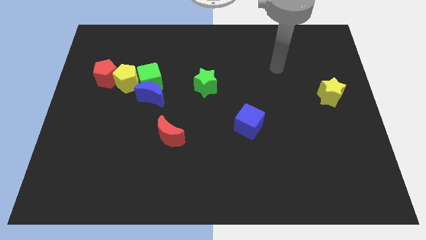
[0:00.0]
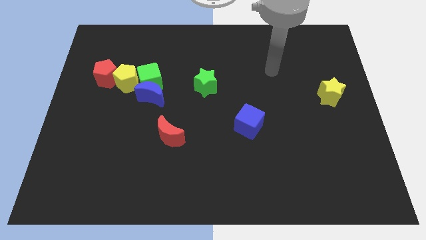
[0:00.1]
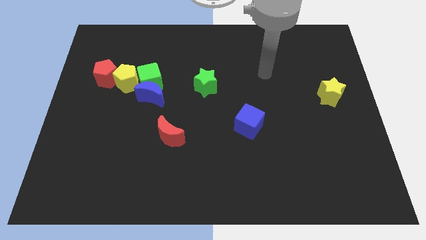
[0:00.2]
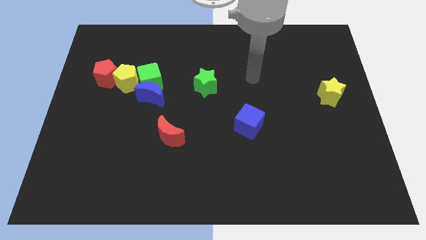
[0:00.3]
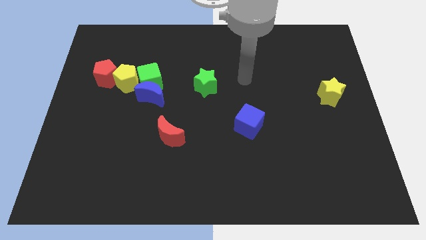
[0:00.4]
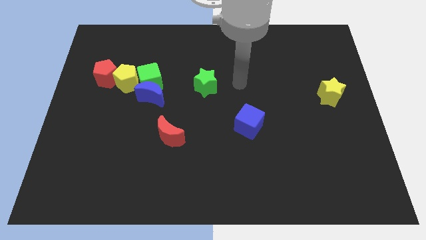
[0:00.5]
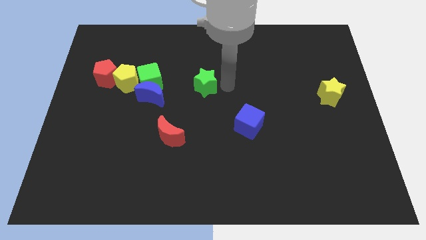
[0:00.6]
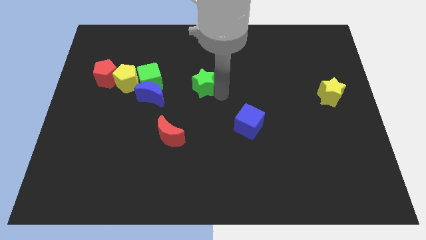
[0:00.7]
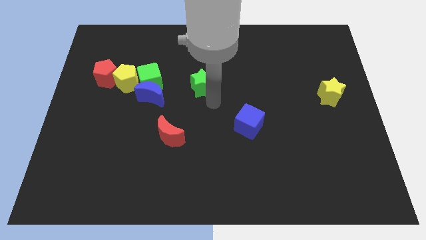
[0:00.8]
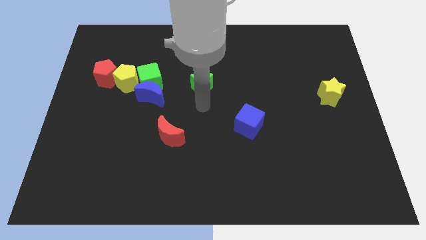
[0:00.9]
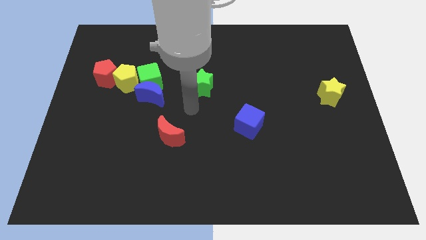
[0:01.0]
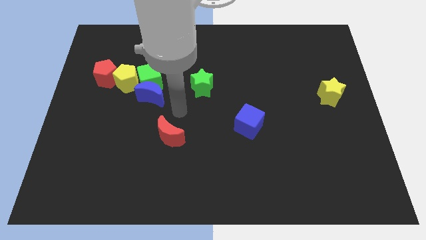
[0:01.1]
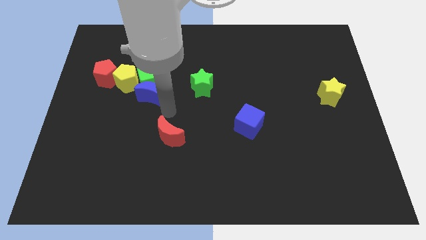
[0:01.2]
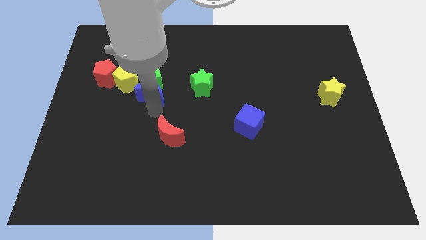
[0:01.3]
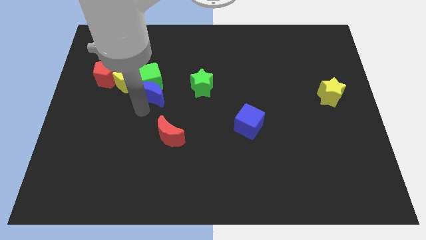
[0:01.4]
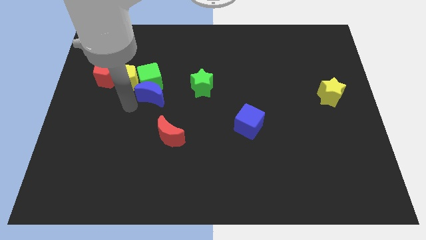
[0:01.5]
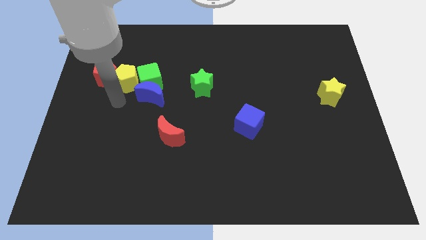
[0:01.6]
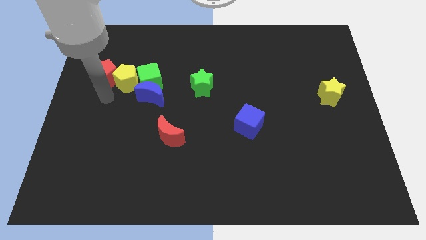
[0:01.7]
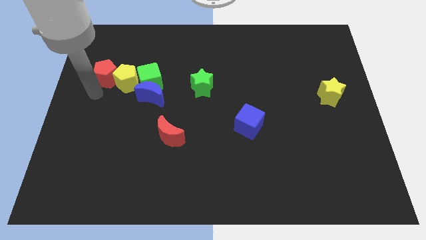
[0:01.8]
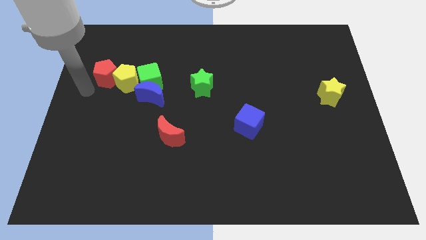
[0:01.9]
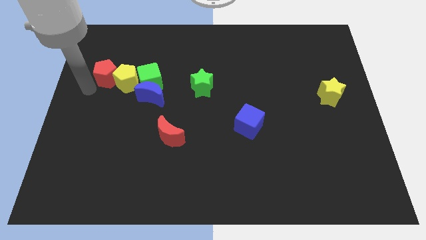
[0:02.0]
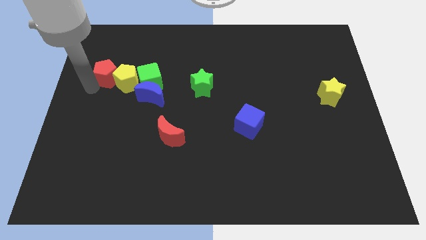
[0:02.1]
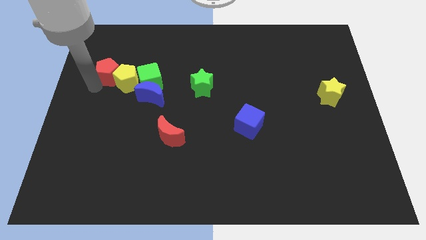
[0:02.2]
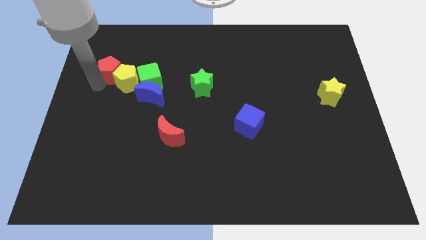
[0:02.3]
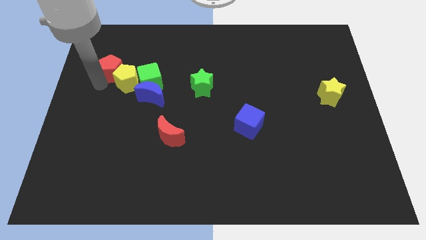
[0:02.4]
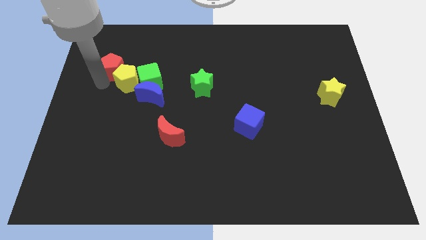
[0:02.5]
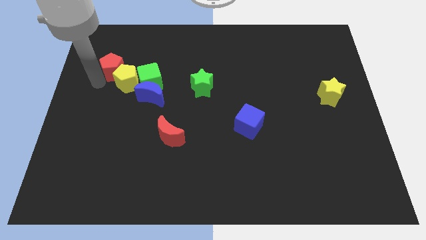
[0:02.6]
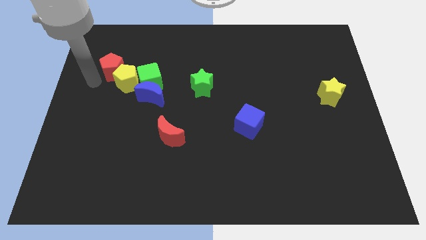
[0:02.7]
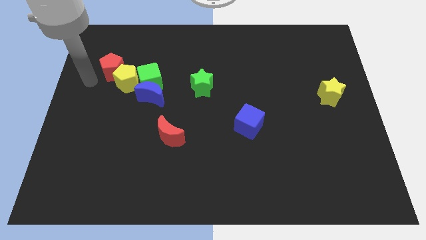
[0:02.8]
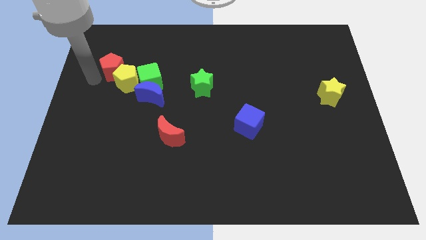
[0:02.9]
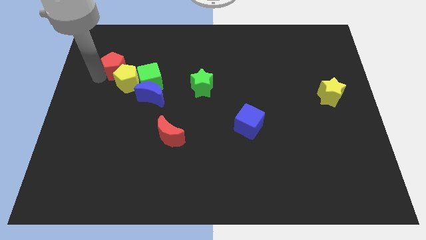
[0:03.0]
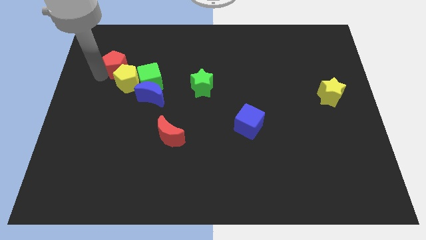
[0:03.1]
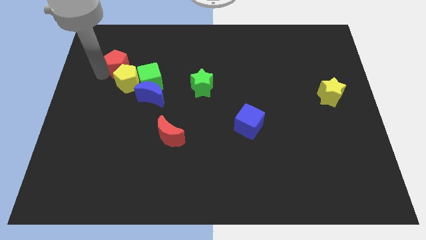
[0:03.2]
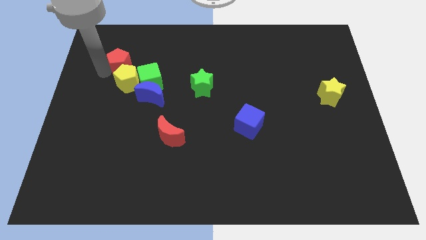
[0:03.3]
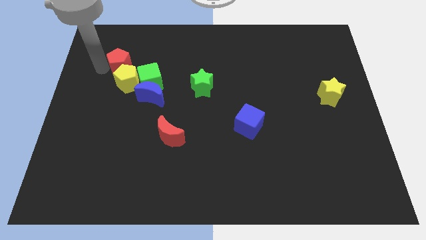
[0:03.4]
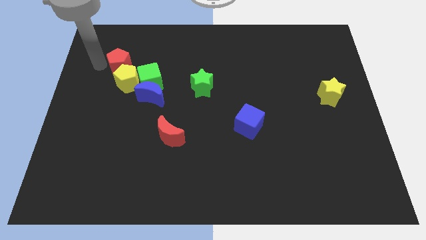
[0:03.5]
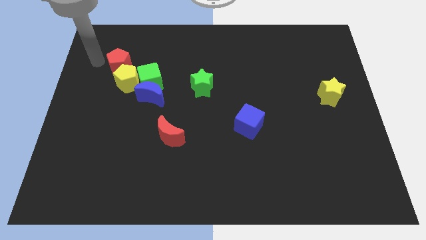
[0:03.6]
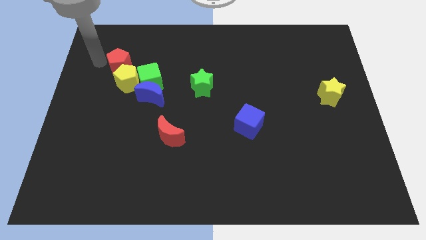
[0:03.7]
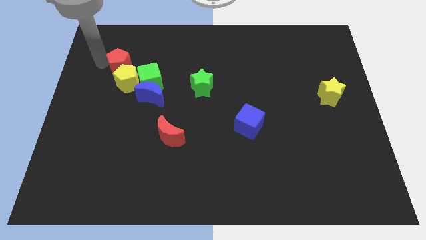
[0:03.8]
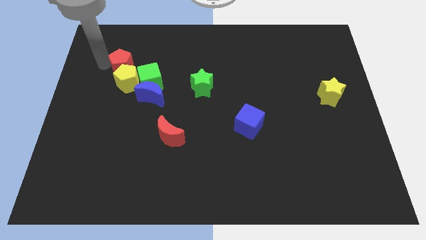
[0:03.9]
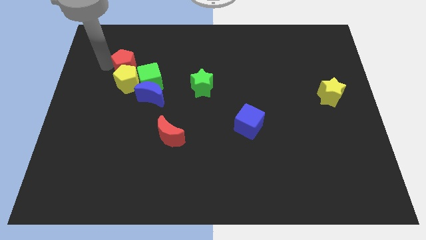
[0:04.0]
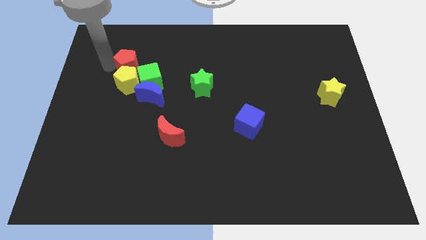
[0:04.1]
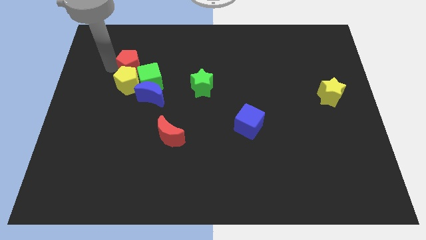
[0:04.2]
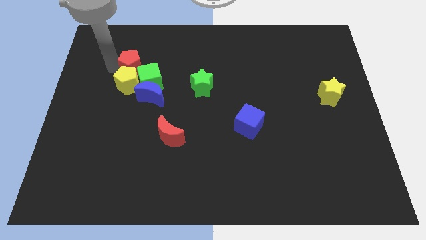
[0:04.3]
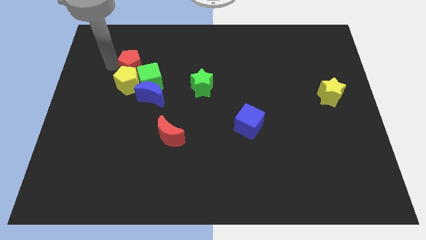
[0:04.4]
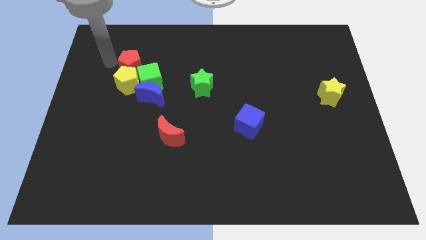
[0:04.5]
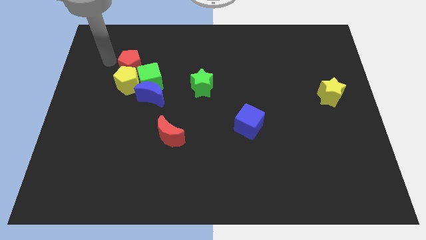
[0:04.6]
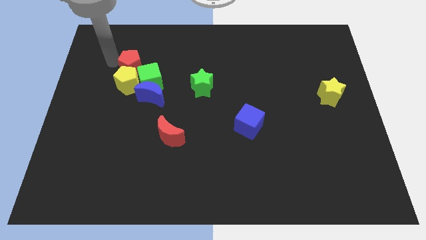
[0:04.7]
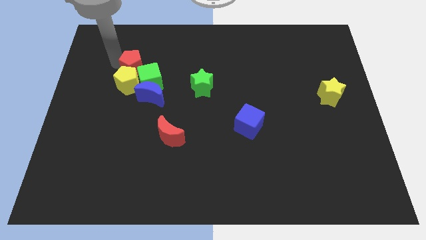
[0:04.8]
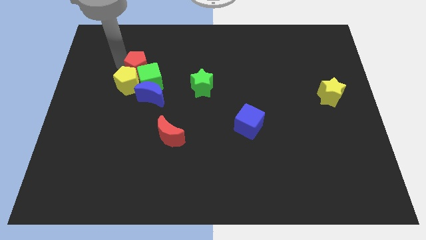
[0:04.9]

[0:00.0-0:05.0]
slide the red pentagon to the green cube

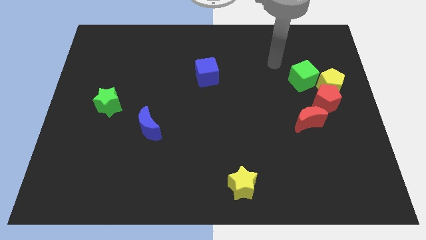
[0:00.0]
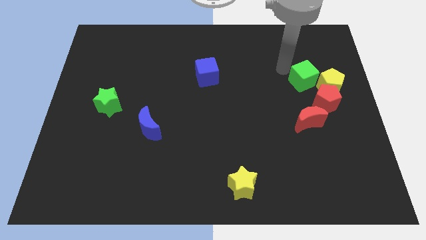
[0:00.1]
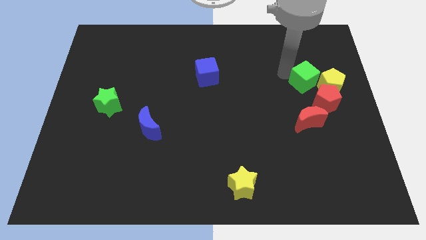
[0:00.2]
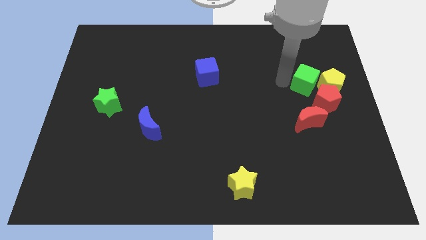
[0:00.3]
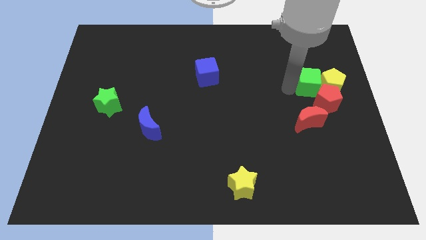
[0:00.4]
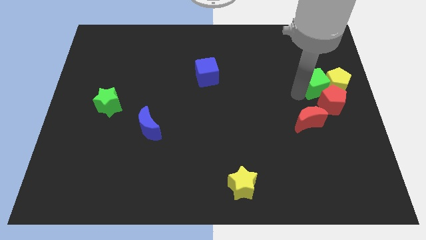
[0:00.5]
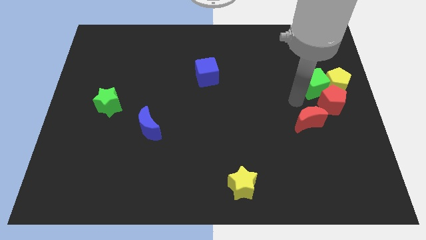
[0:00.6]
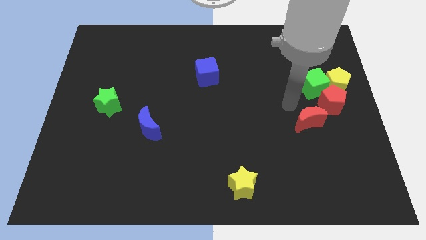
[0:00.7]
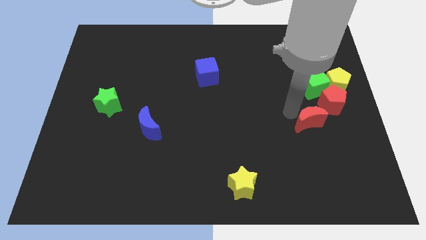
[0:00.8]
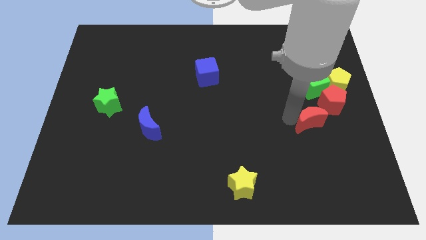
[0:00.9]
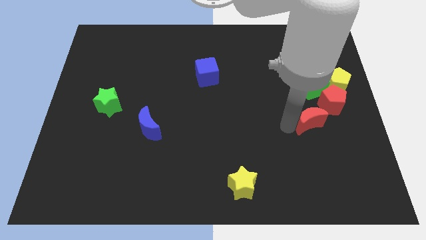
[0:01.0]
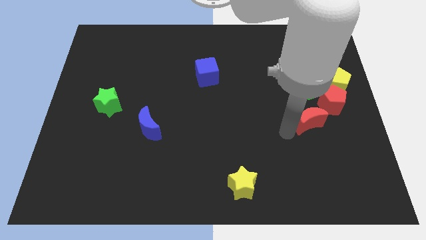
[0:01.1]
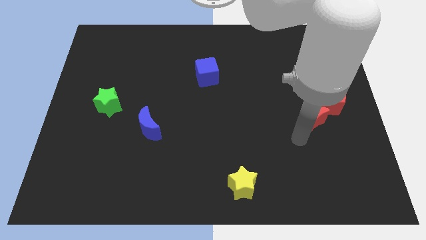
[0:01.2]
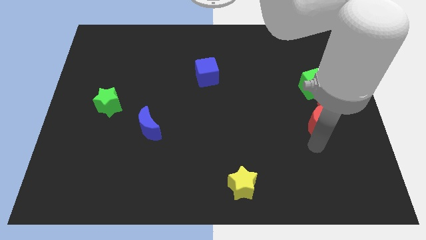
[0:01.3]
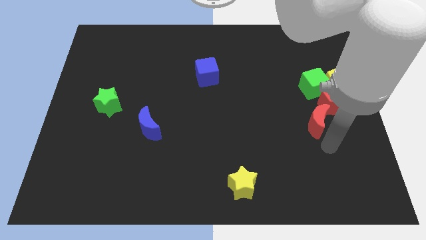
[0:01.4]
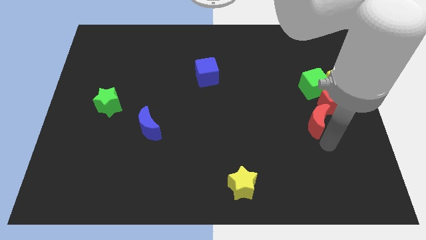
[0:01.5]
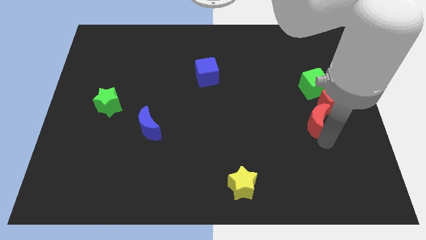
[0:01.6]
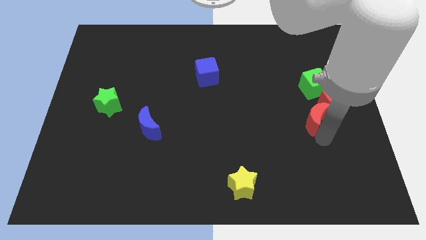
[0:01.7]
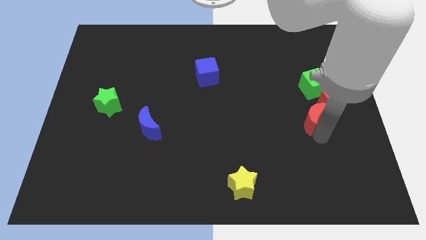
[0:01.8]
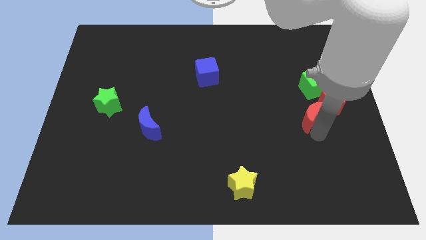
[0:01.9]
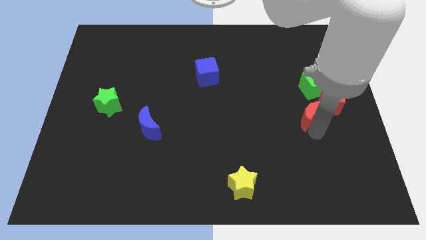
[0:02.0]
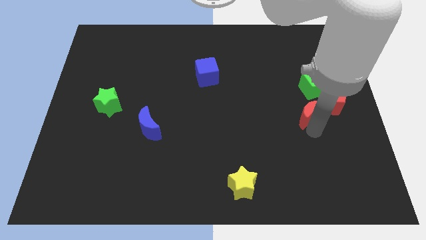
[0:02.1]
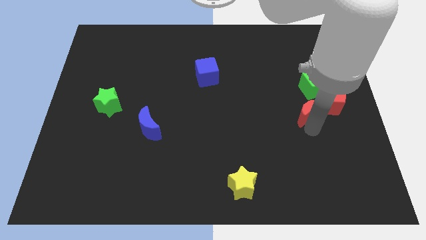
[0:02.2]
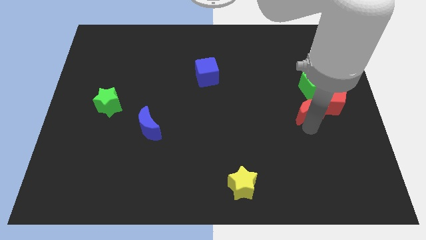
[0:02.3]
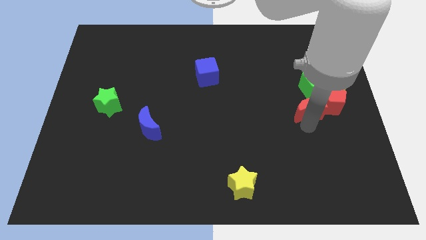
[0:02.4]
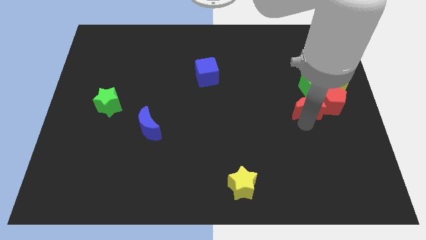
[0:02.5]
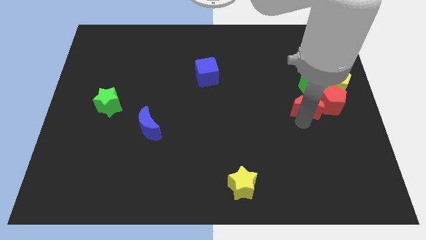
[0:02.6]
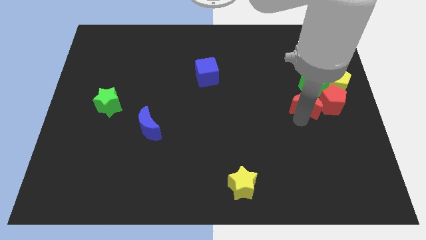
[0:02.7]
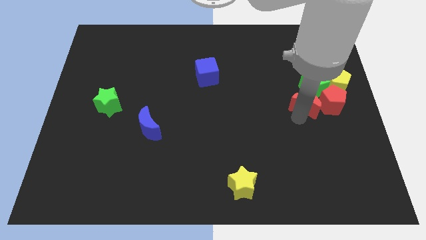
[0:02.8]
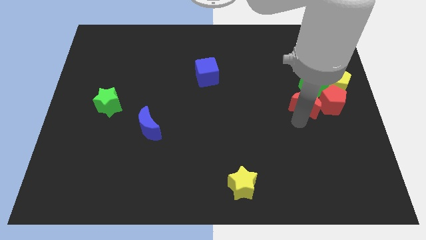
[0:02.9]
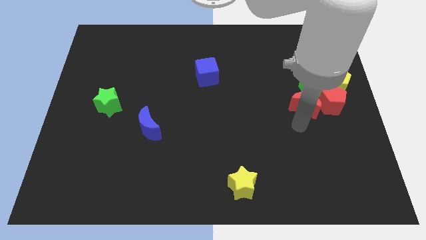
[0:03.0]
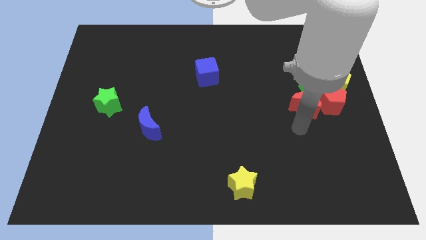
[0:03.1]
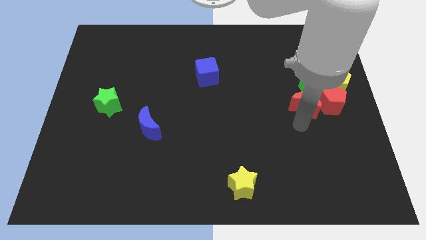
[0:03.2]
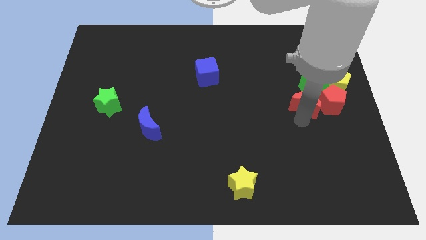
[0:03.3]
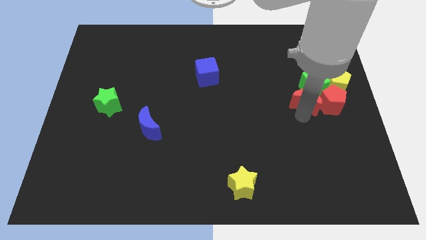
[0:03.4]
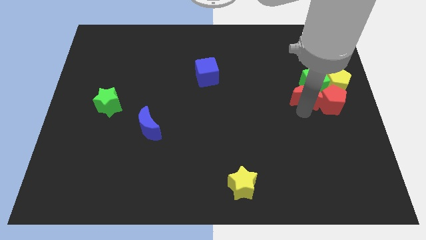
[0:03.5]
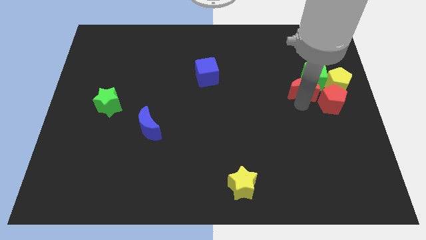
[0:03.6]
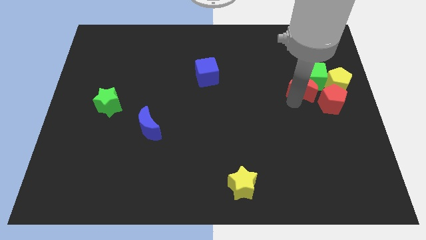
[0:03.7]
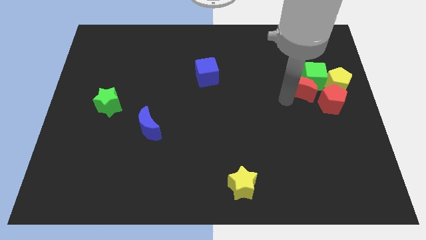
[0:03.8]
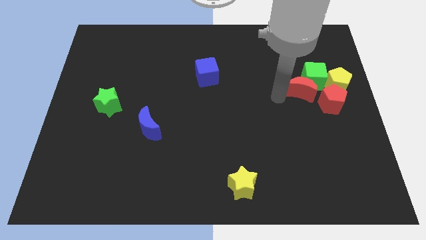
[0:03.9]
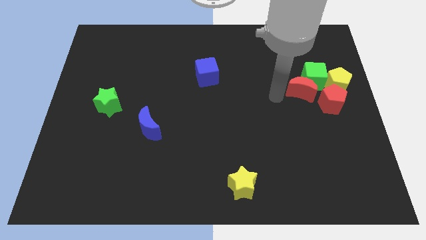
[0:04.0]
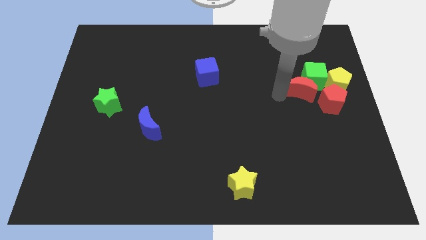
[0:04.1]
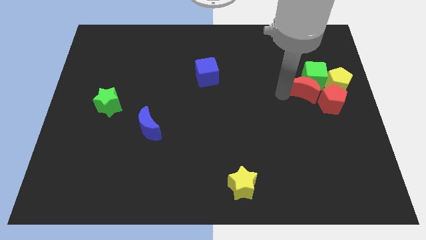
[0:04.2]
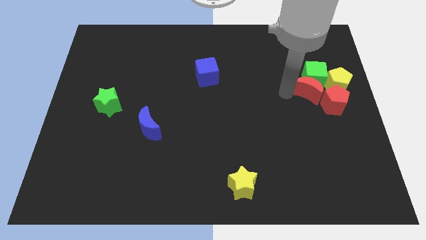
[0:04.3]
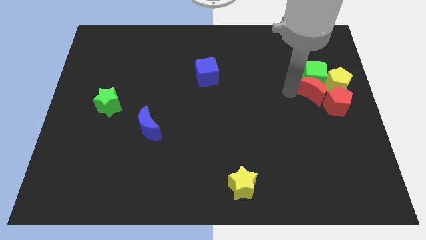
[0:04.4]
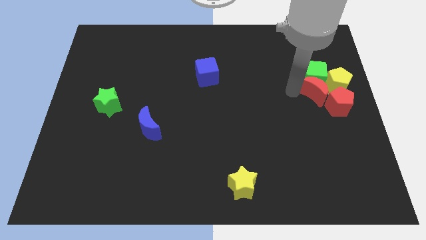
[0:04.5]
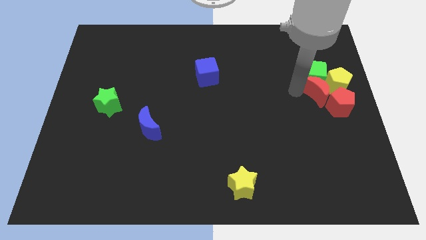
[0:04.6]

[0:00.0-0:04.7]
put the red moon to the yellow pentagon
